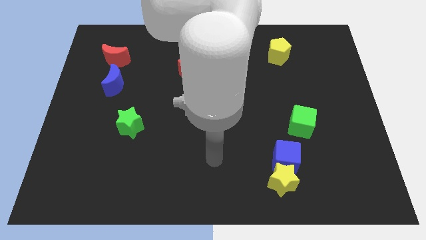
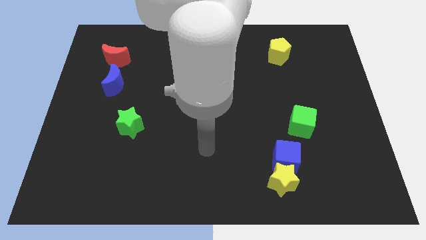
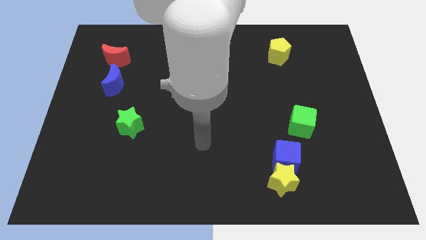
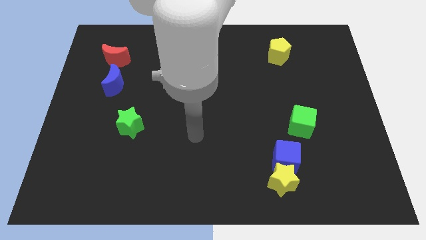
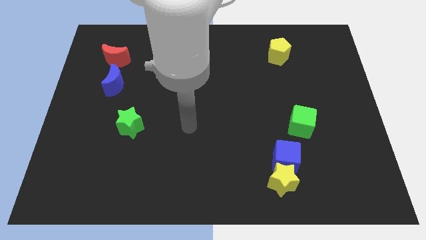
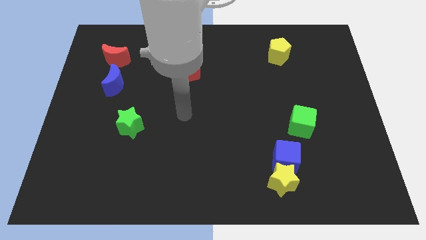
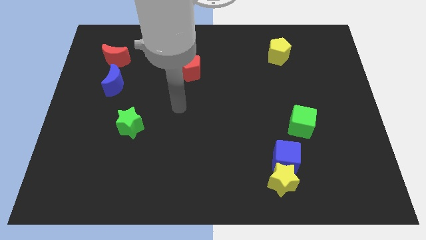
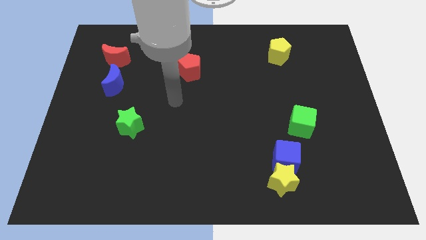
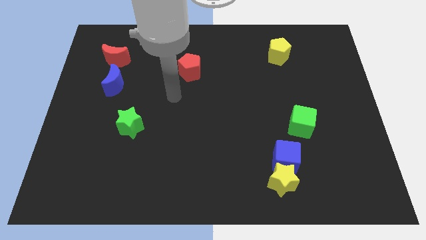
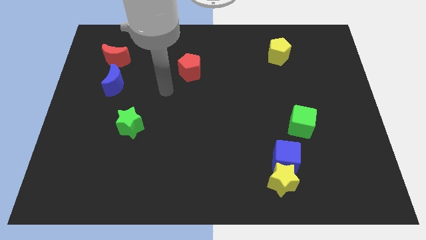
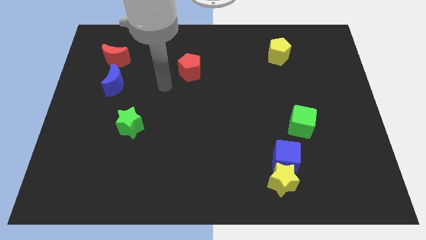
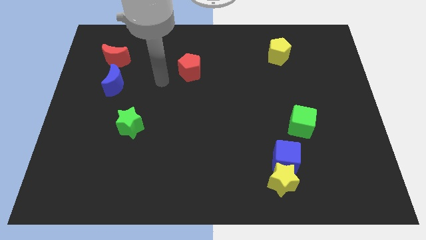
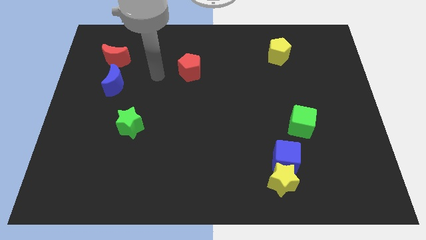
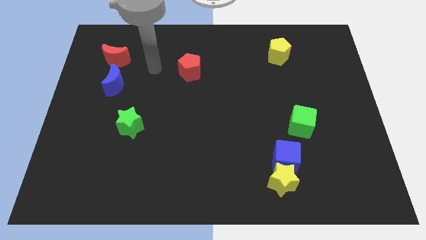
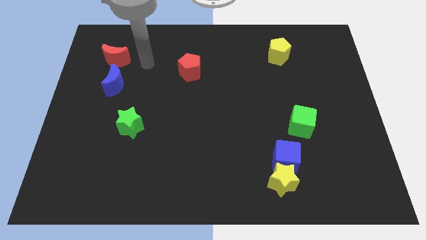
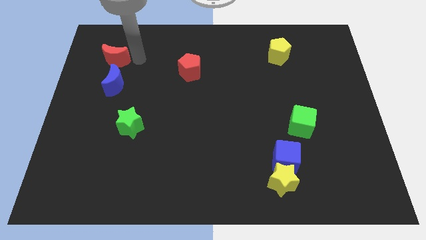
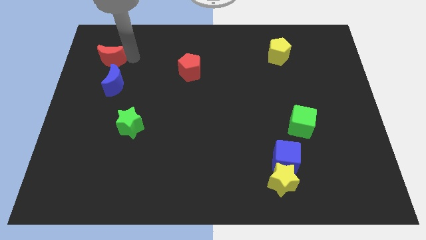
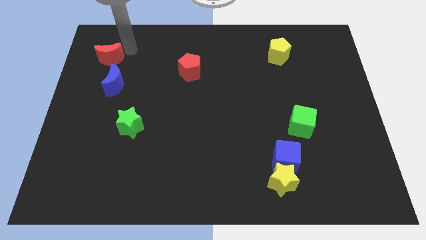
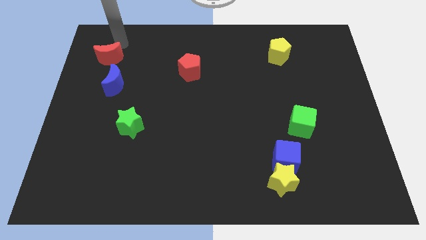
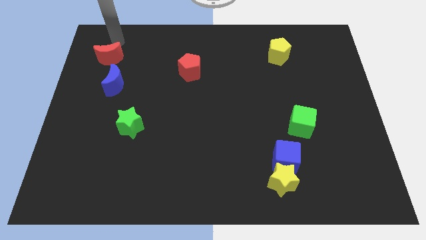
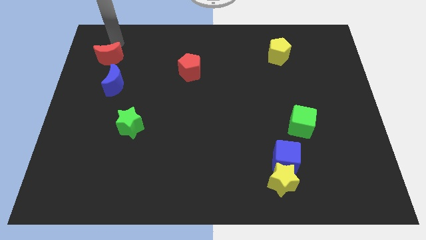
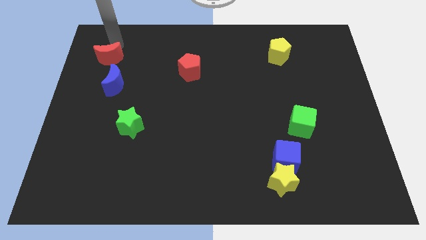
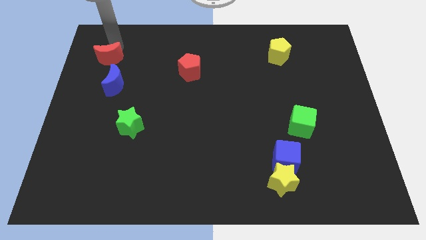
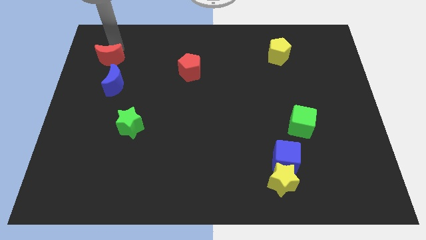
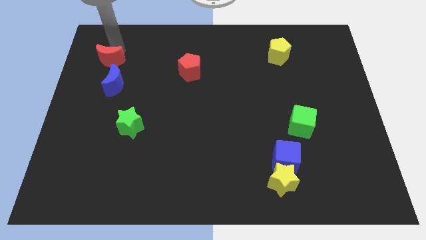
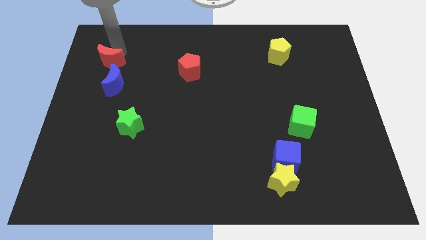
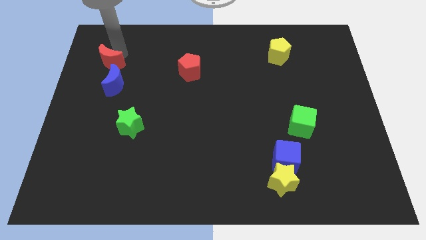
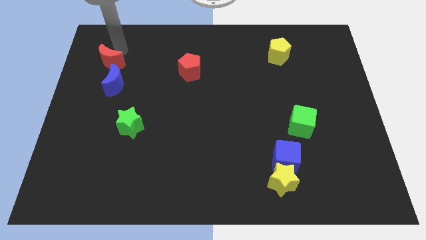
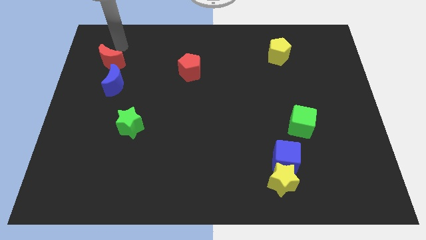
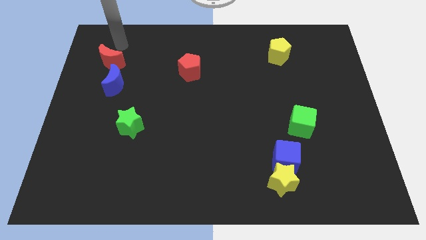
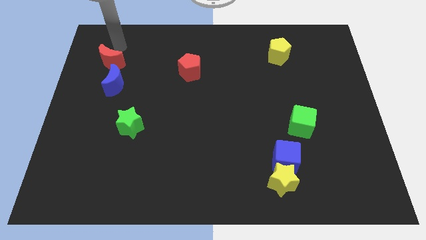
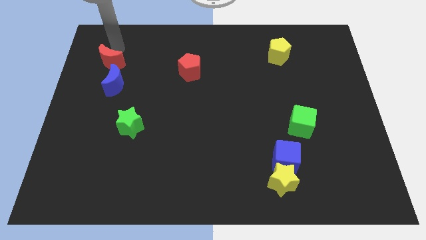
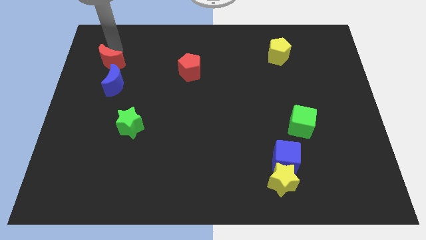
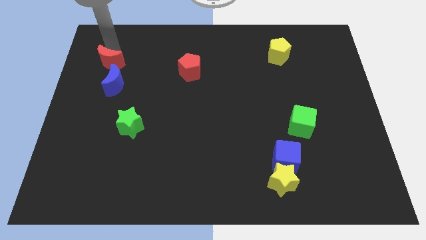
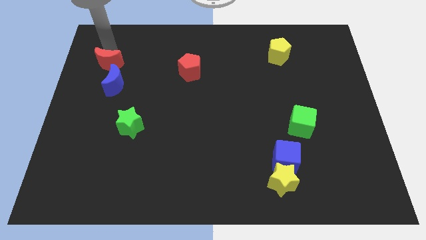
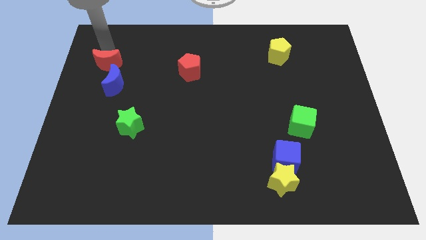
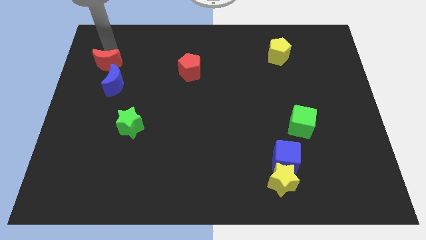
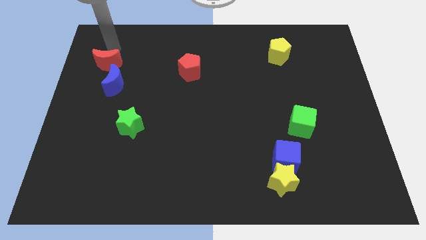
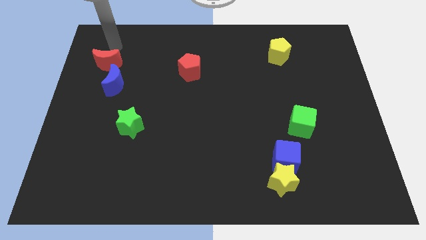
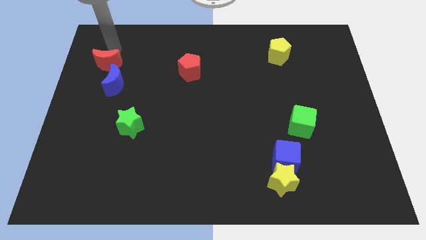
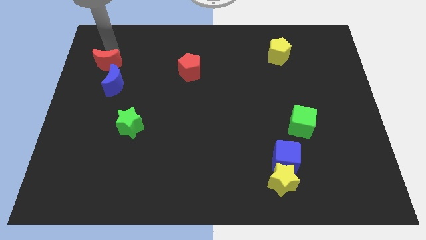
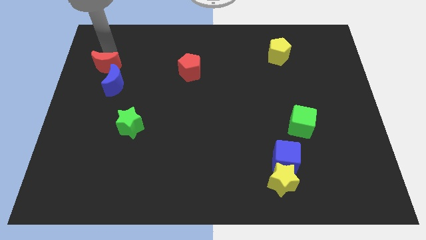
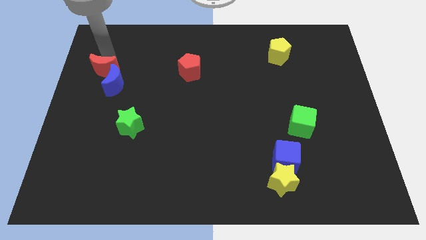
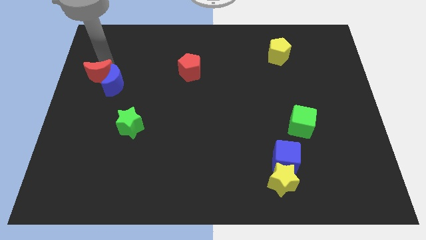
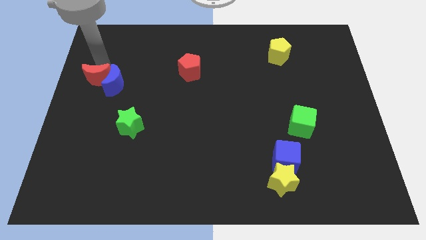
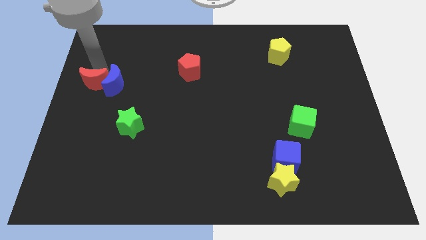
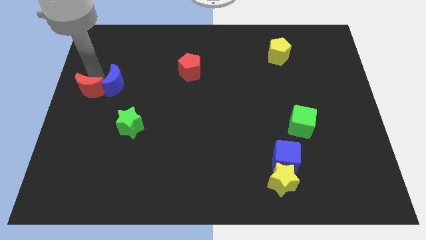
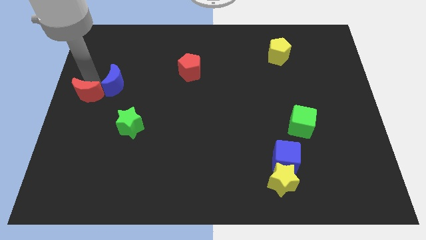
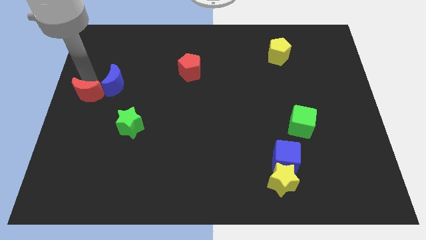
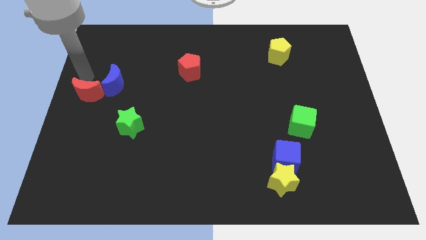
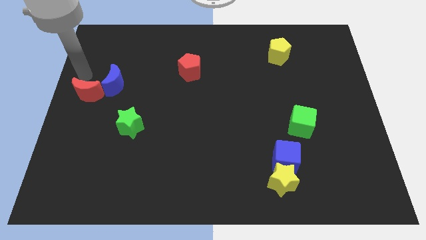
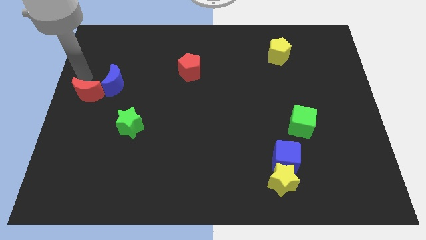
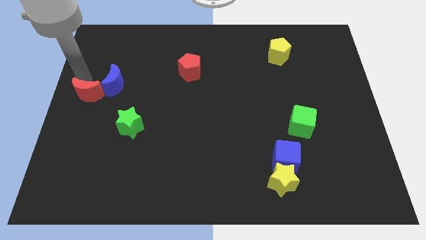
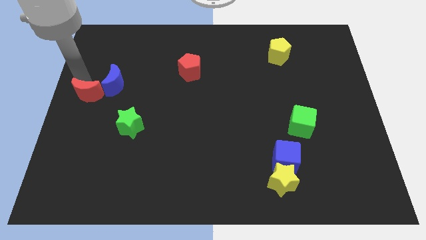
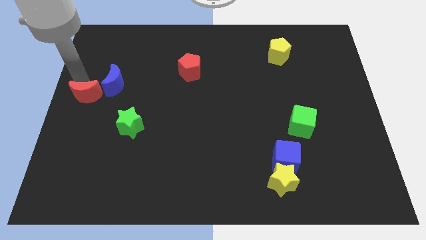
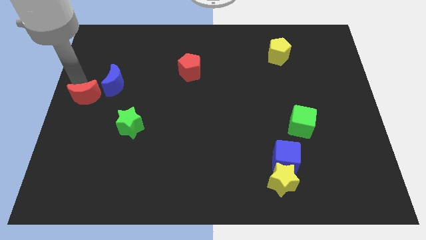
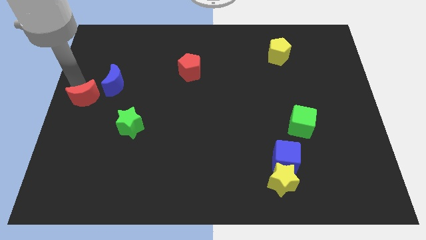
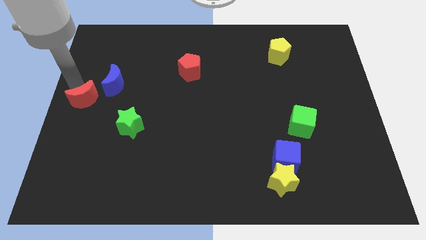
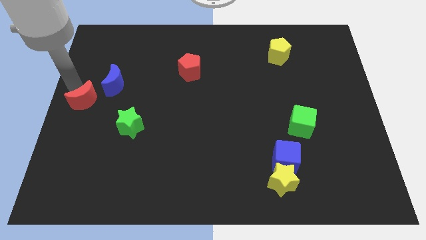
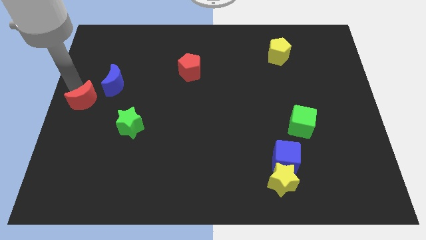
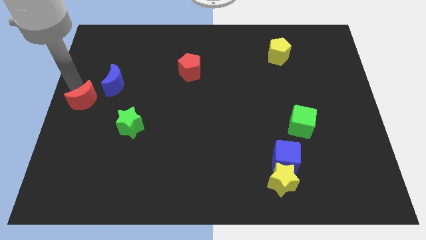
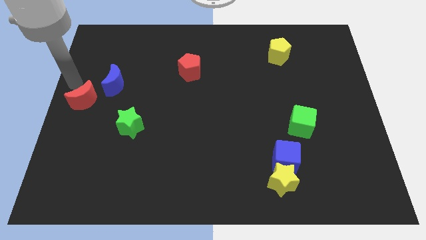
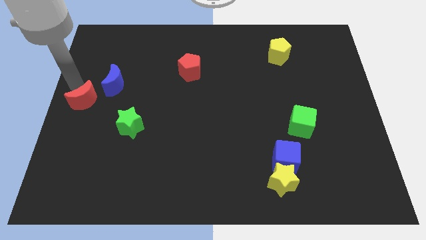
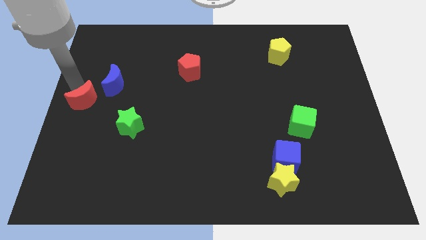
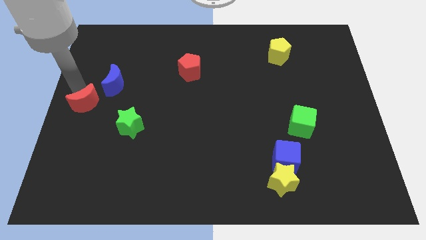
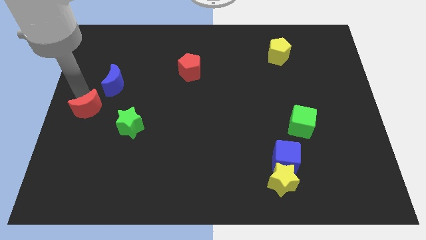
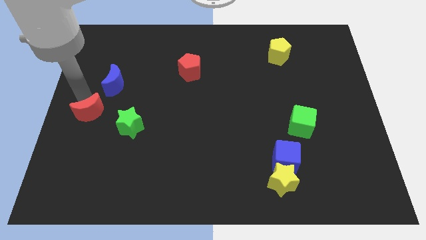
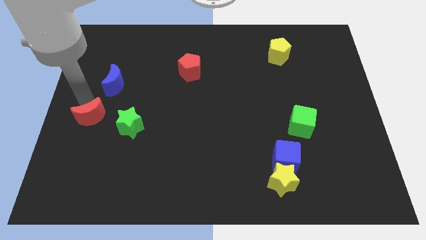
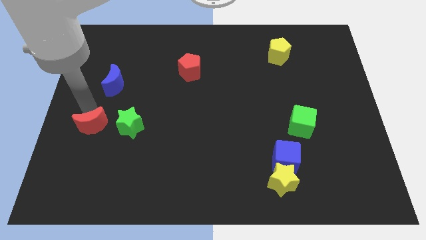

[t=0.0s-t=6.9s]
push the red moon down

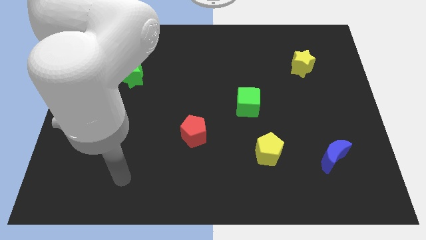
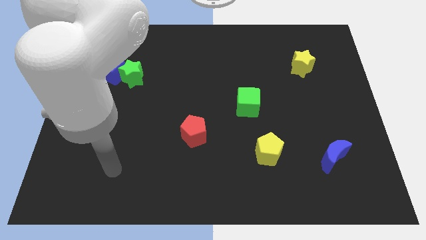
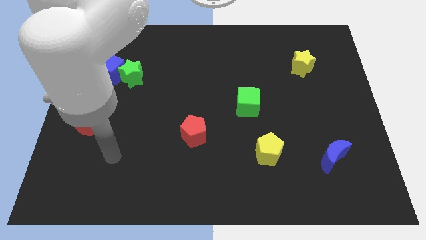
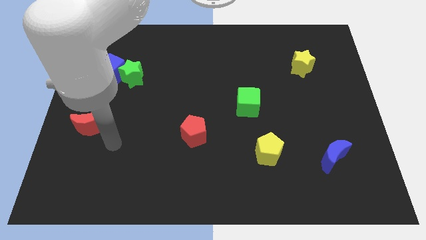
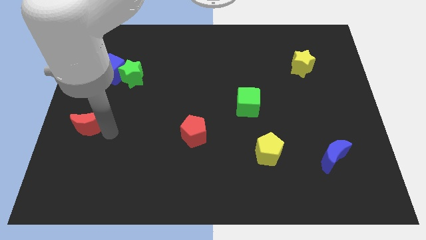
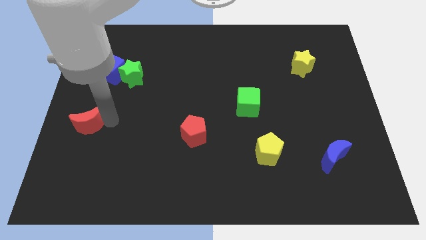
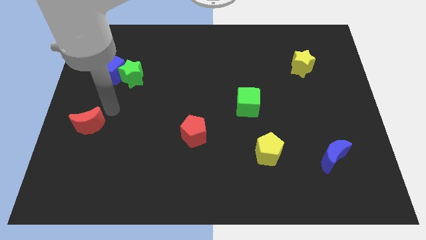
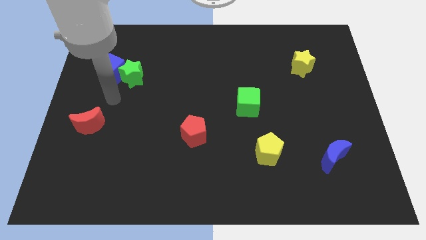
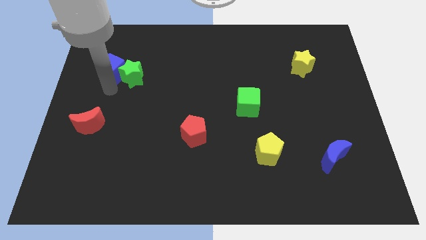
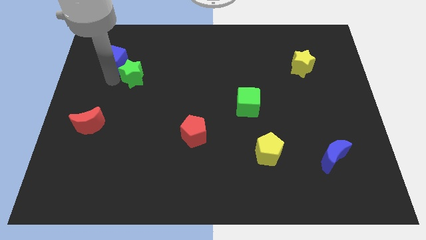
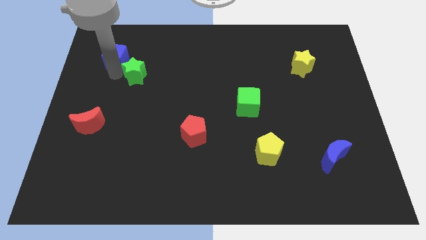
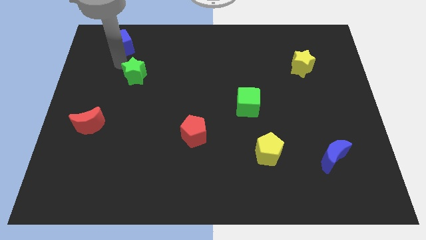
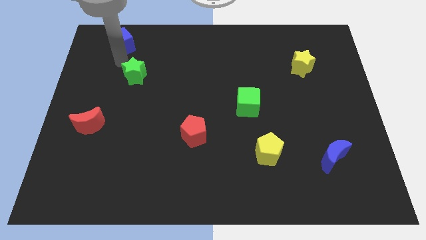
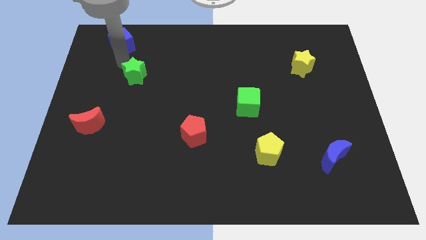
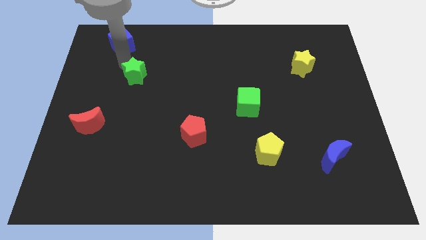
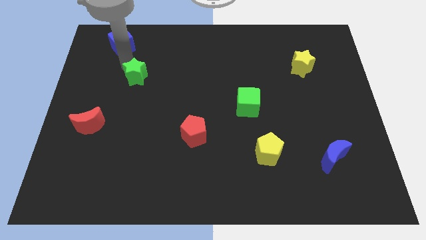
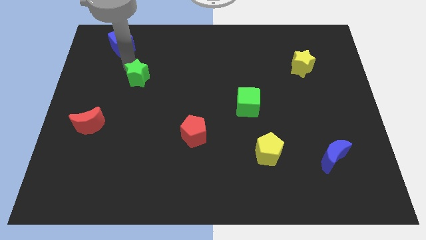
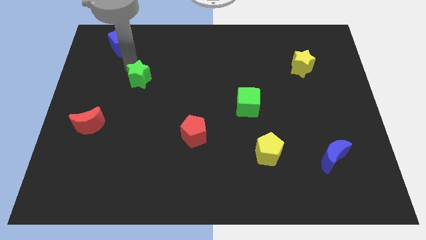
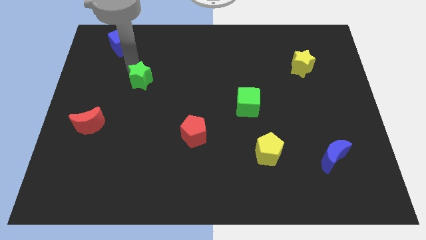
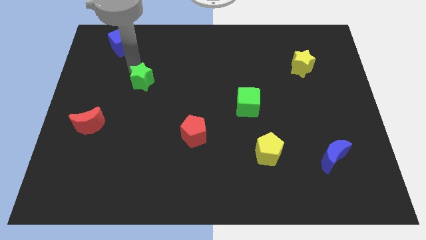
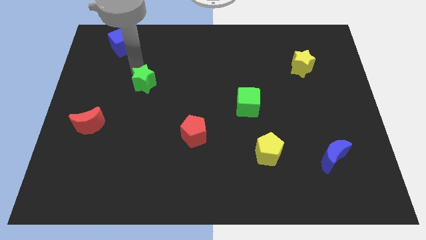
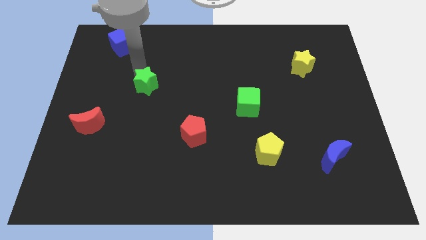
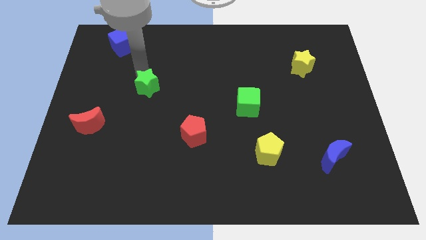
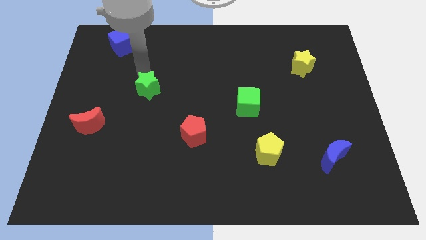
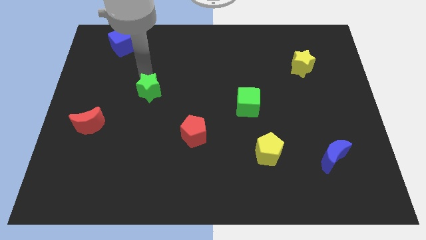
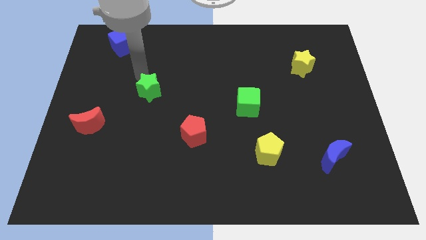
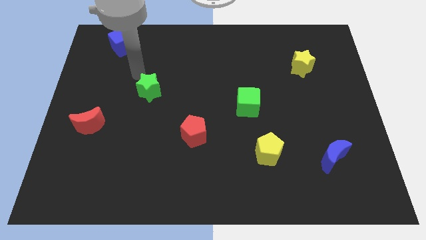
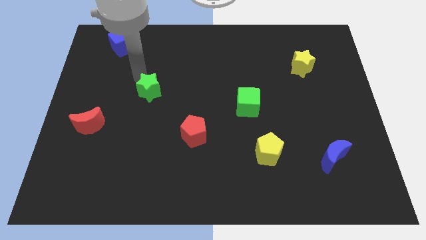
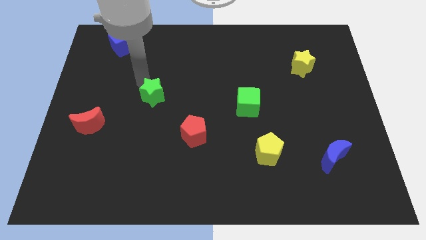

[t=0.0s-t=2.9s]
slightly move the green star down and right
